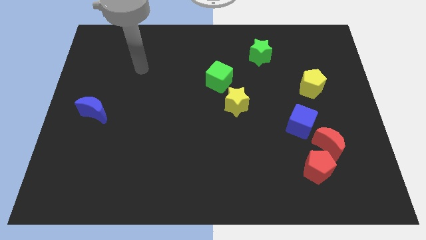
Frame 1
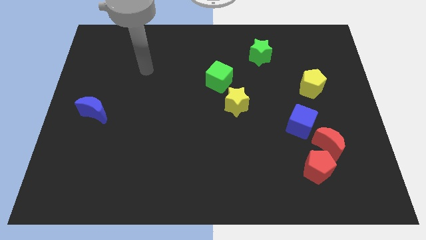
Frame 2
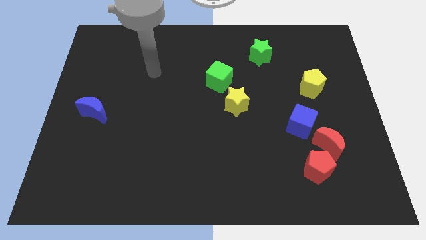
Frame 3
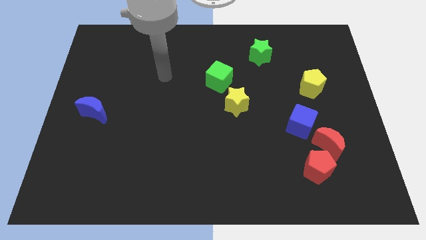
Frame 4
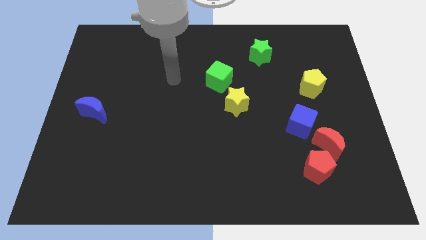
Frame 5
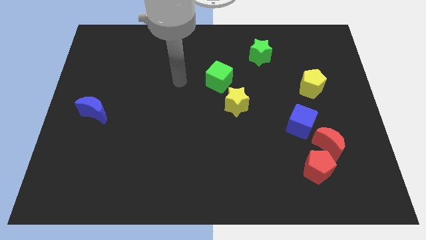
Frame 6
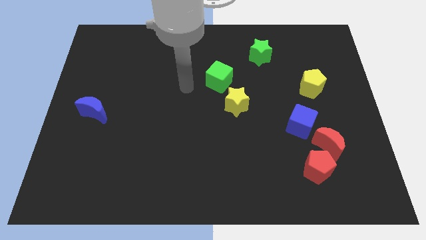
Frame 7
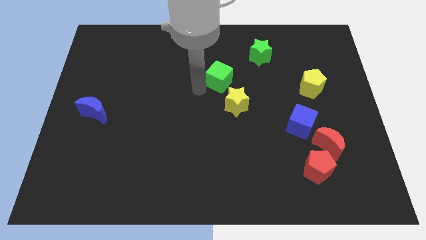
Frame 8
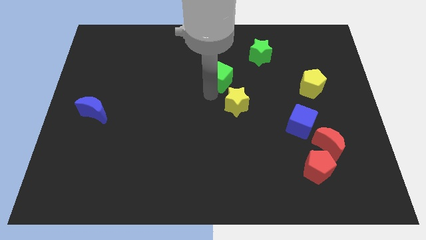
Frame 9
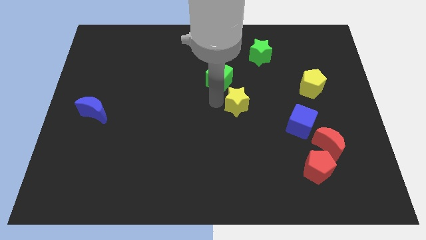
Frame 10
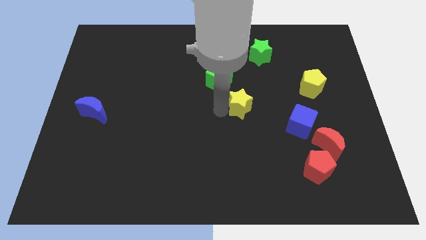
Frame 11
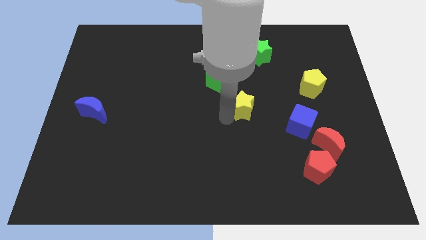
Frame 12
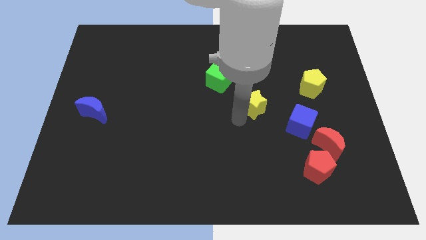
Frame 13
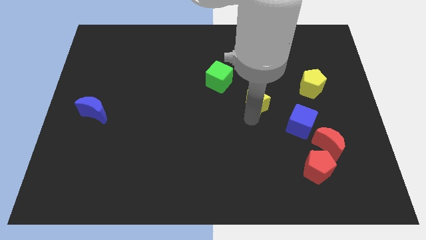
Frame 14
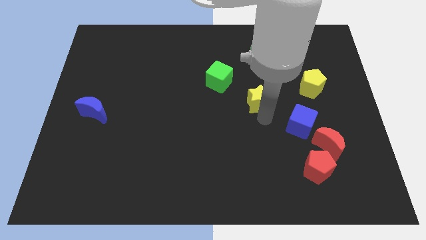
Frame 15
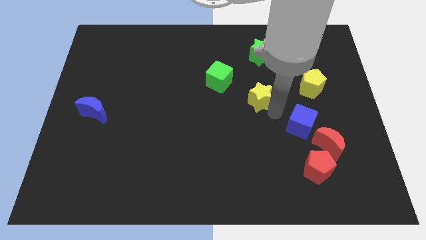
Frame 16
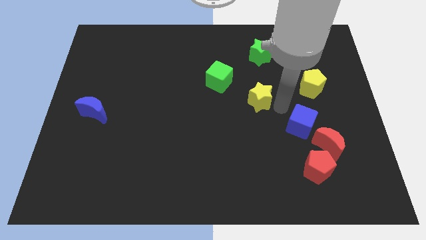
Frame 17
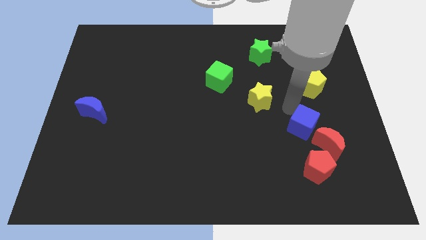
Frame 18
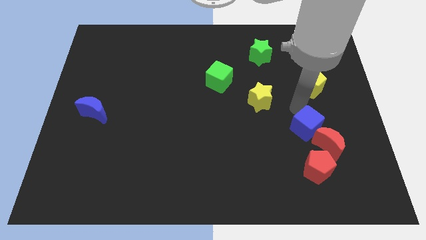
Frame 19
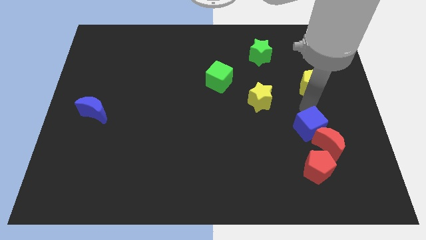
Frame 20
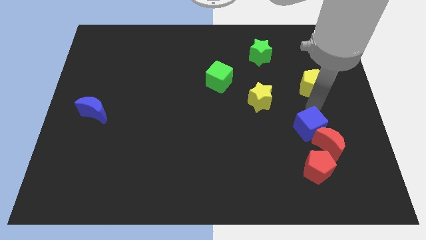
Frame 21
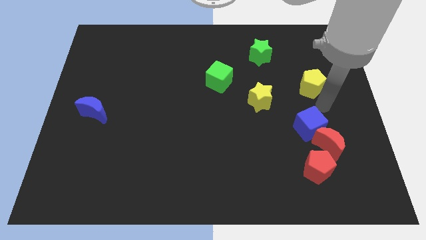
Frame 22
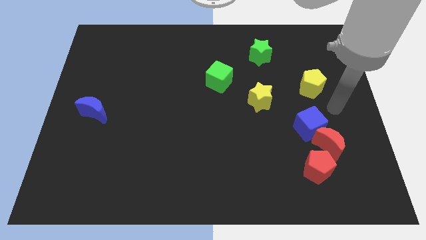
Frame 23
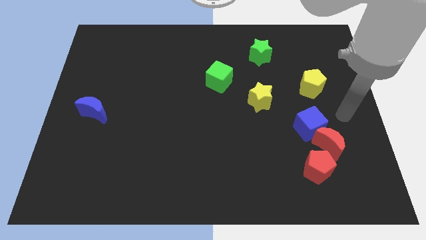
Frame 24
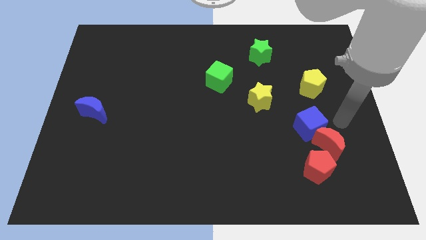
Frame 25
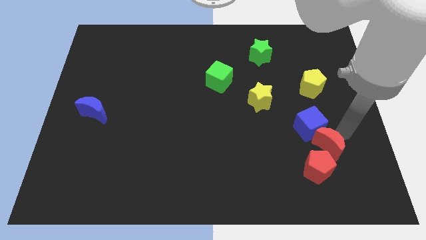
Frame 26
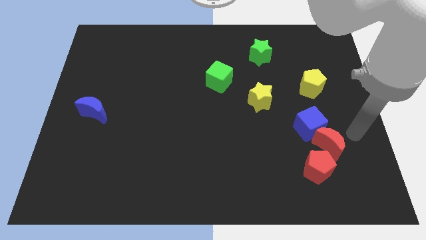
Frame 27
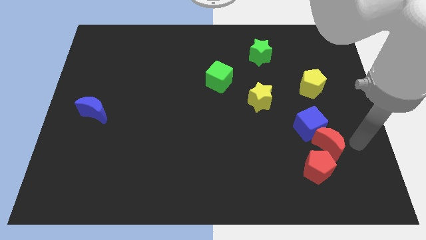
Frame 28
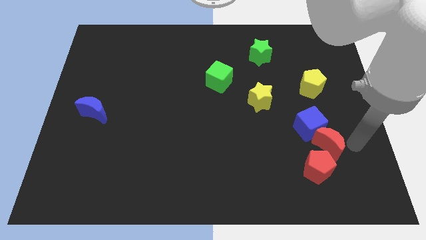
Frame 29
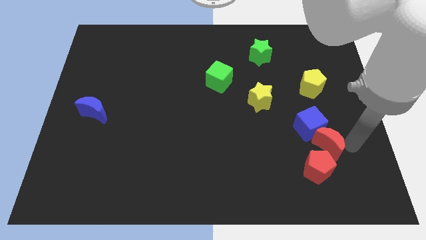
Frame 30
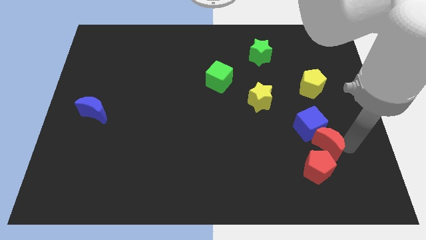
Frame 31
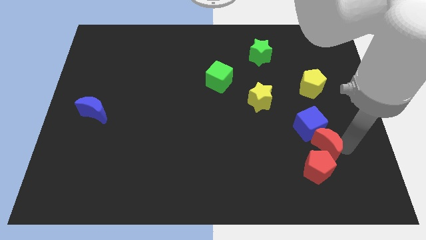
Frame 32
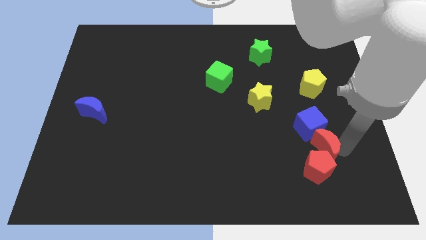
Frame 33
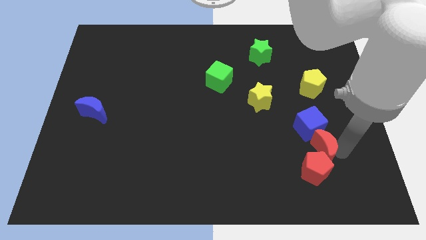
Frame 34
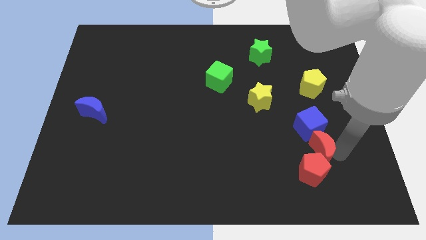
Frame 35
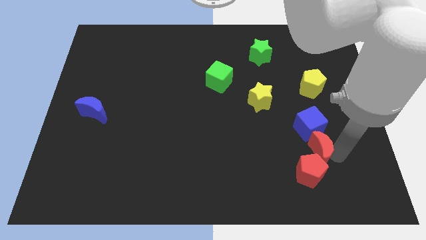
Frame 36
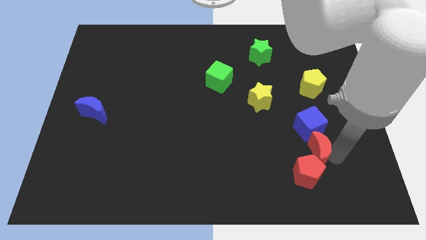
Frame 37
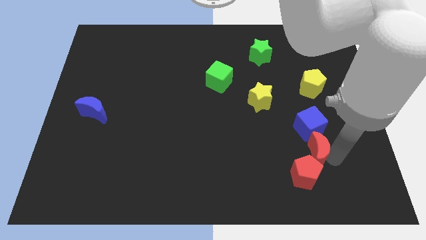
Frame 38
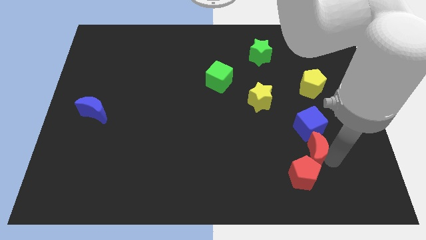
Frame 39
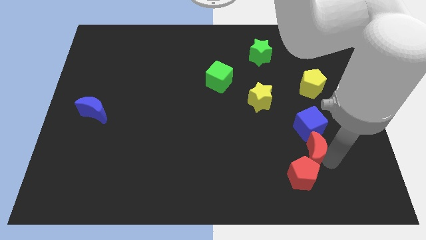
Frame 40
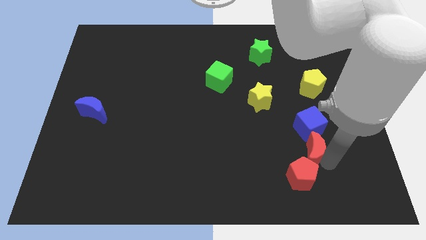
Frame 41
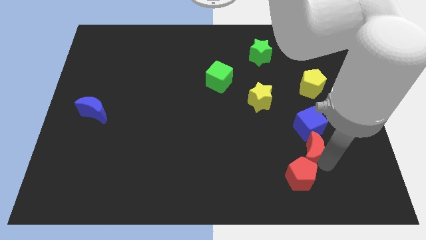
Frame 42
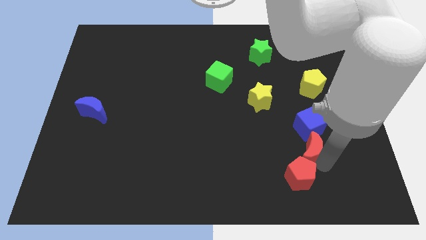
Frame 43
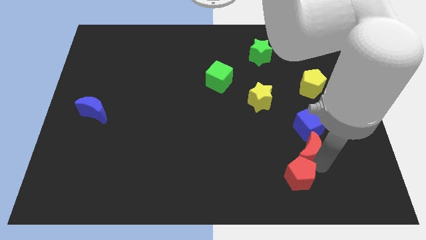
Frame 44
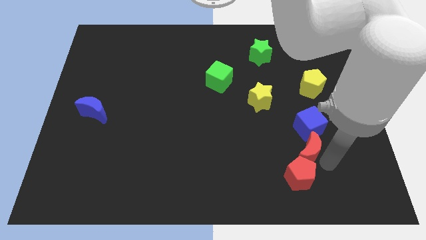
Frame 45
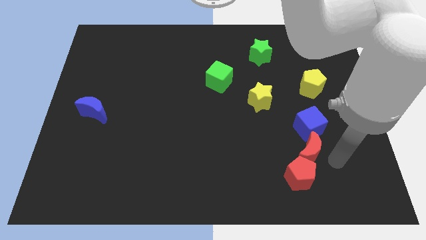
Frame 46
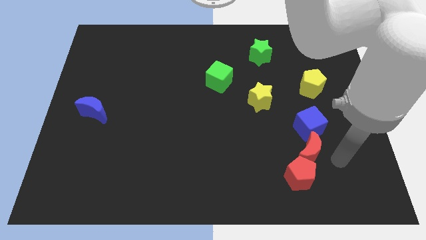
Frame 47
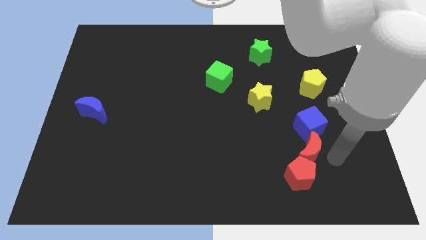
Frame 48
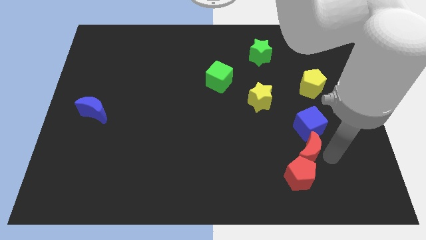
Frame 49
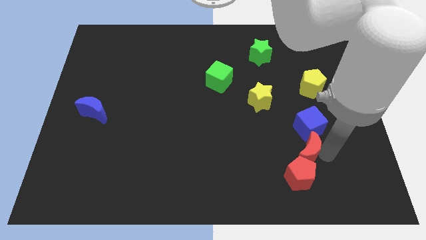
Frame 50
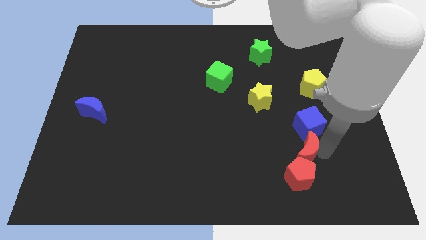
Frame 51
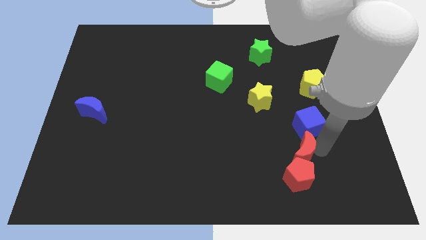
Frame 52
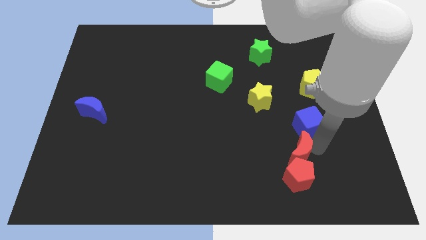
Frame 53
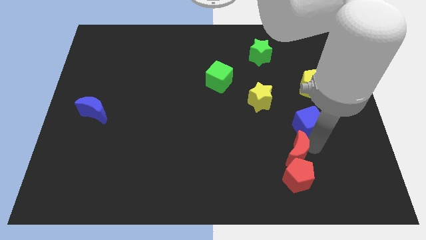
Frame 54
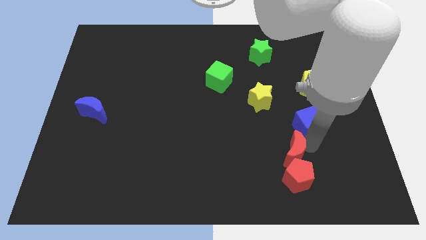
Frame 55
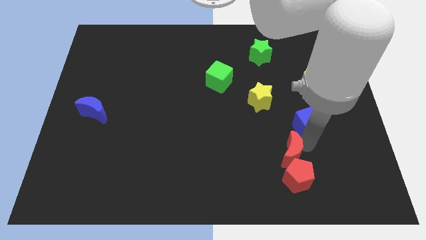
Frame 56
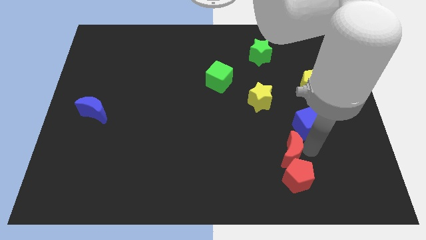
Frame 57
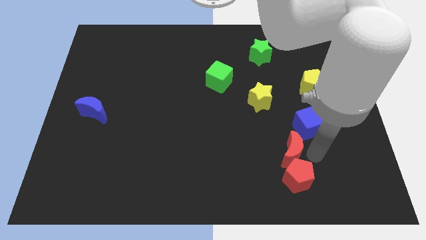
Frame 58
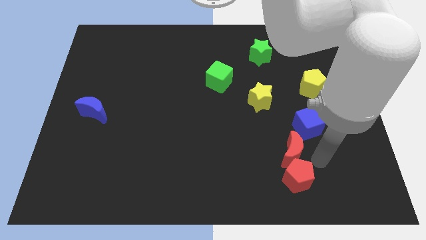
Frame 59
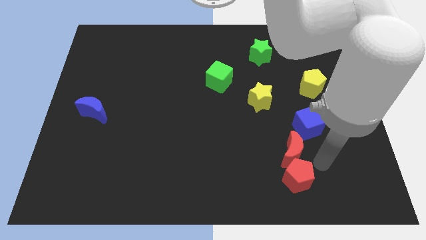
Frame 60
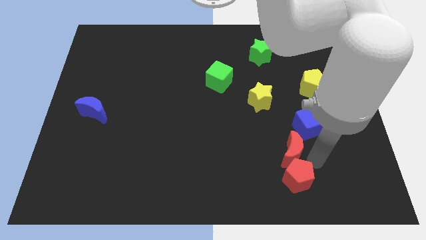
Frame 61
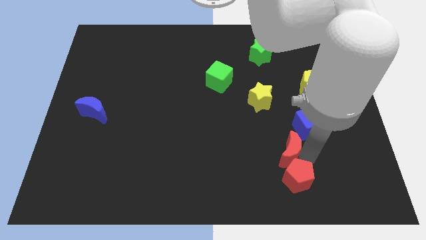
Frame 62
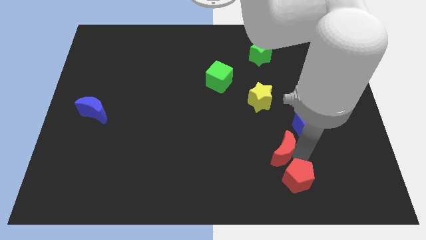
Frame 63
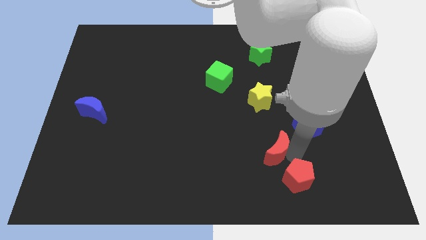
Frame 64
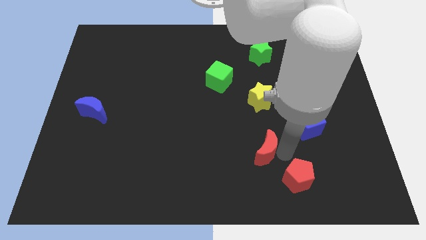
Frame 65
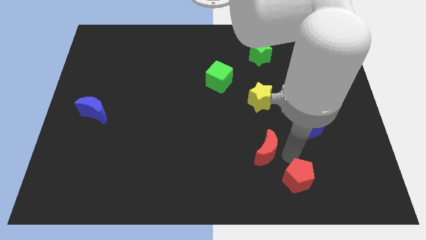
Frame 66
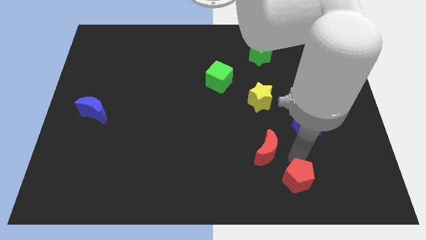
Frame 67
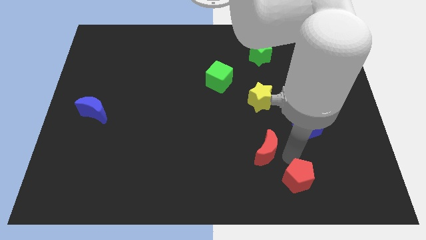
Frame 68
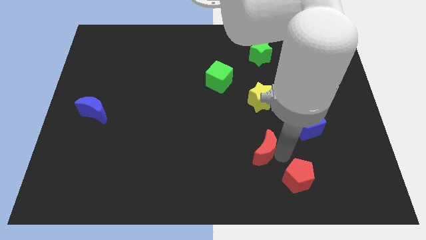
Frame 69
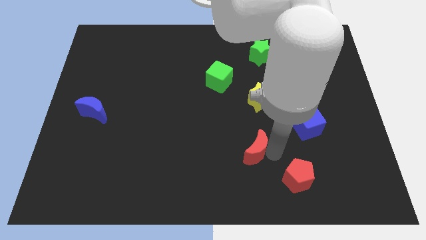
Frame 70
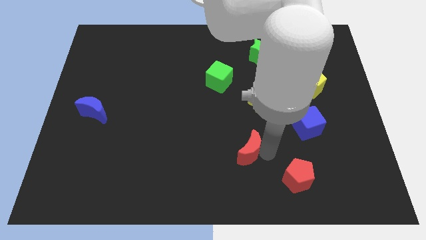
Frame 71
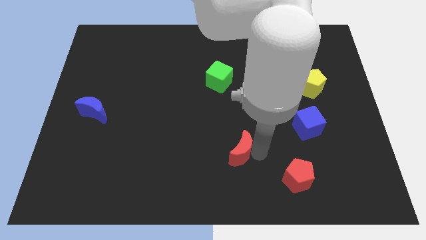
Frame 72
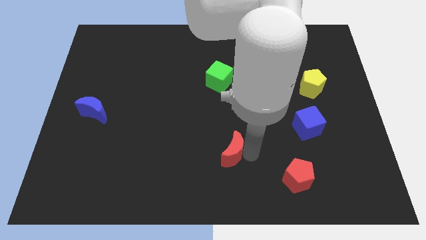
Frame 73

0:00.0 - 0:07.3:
move the red moon left

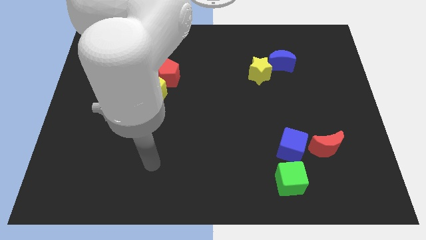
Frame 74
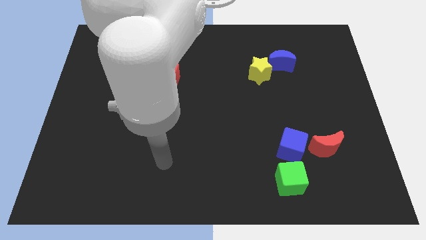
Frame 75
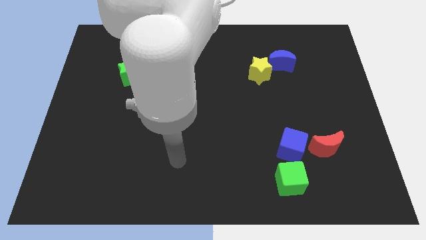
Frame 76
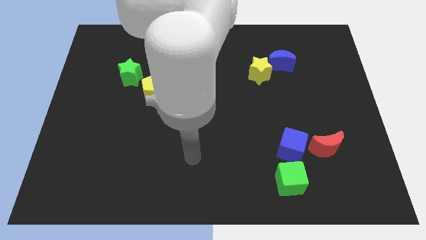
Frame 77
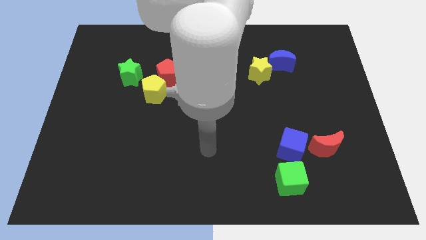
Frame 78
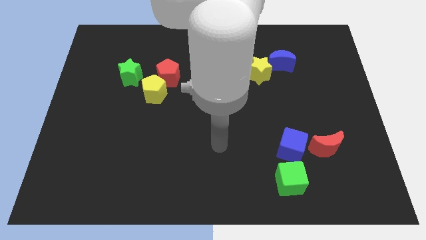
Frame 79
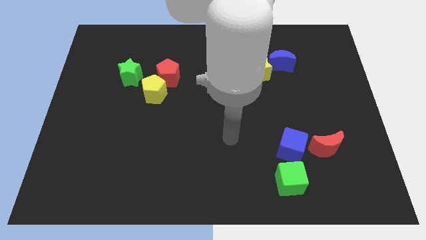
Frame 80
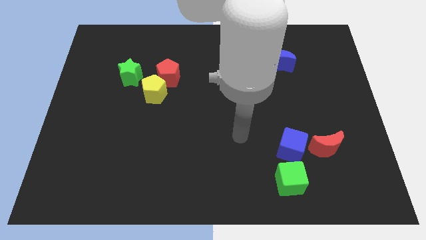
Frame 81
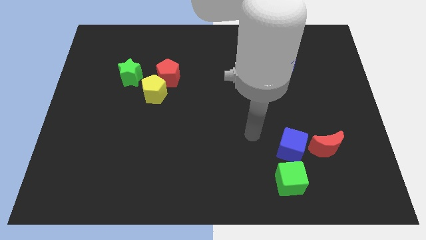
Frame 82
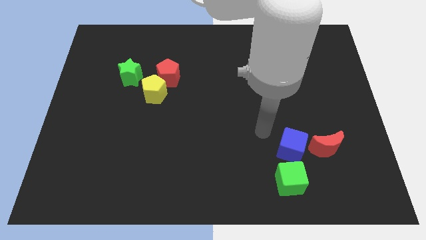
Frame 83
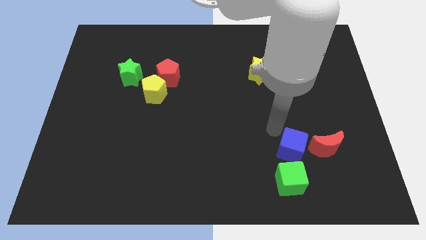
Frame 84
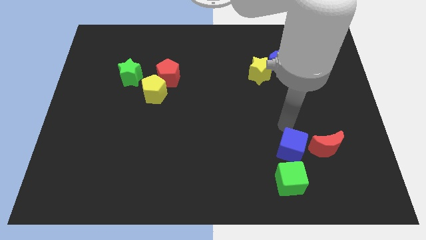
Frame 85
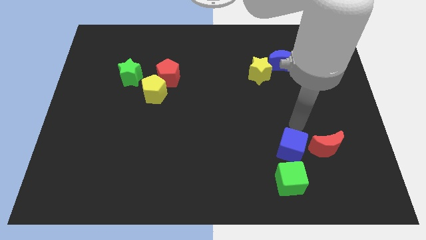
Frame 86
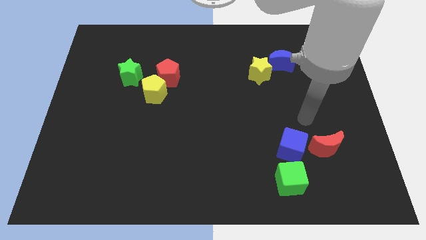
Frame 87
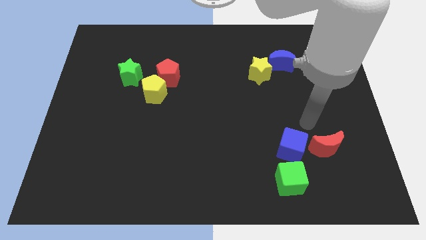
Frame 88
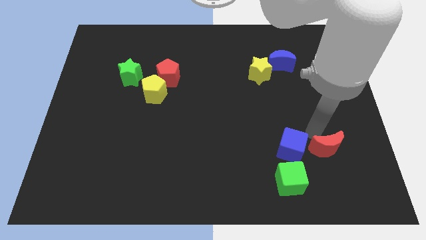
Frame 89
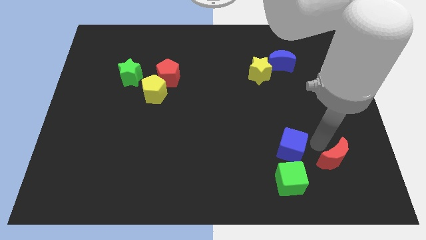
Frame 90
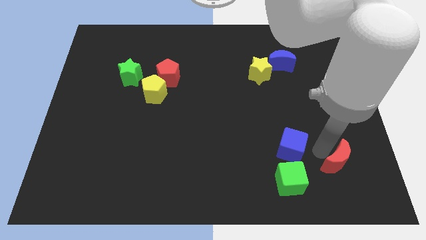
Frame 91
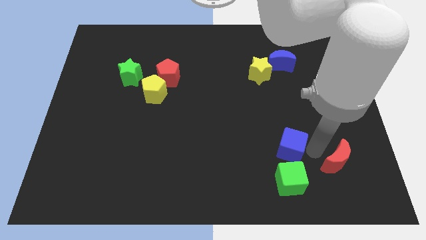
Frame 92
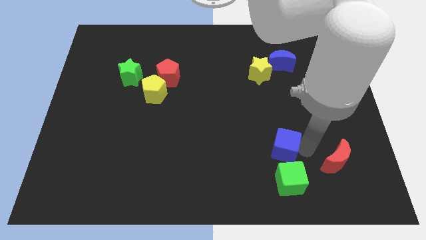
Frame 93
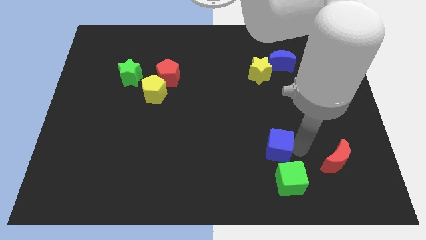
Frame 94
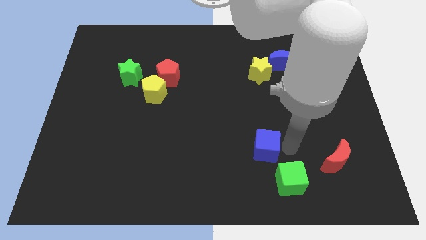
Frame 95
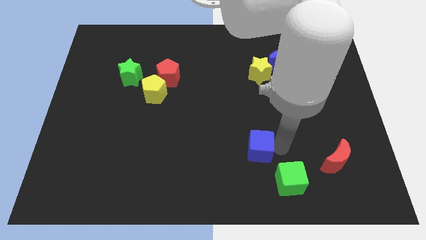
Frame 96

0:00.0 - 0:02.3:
slightly move the blue cube left
